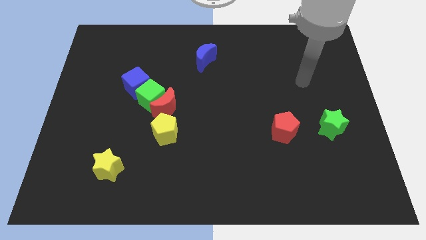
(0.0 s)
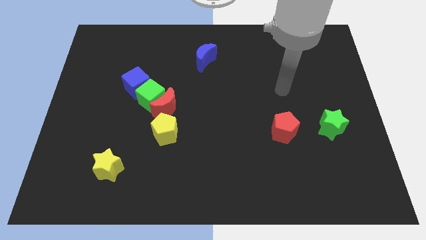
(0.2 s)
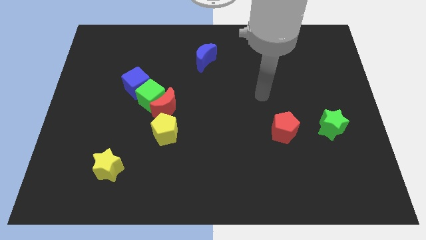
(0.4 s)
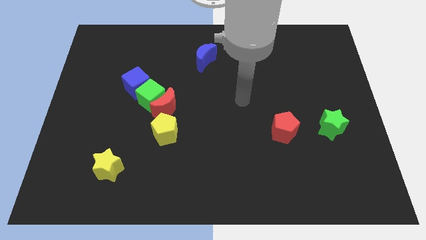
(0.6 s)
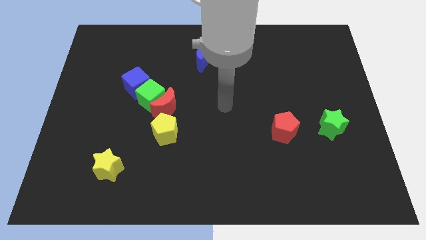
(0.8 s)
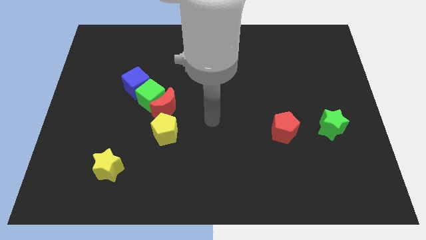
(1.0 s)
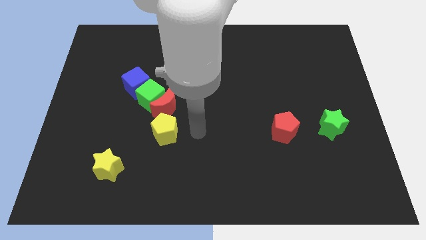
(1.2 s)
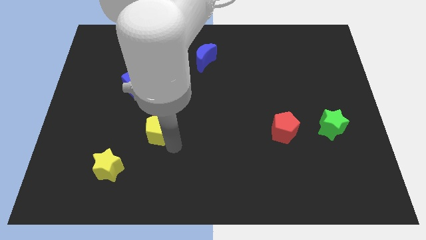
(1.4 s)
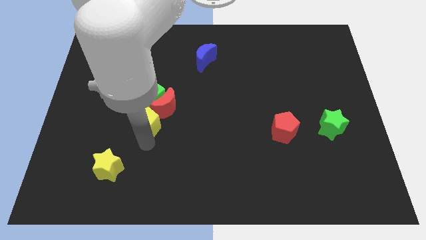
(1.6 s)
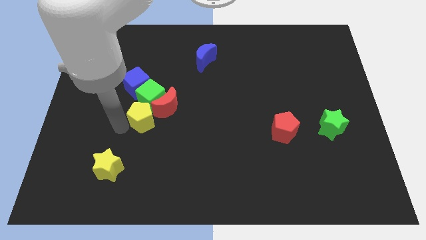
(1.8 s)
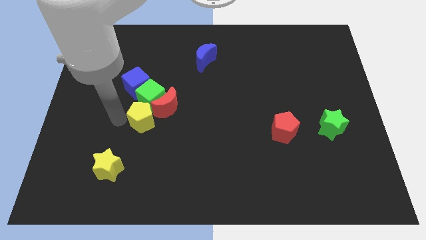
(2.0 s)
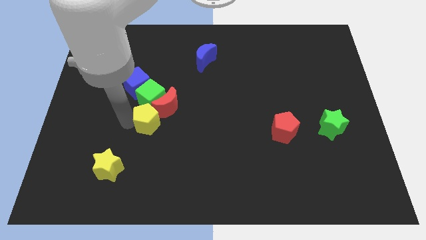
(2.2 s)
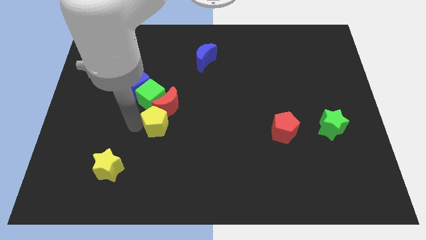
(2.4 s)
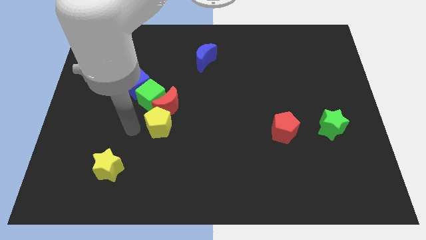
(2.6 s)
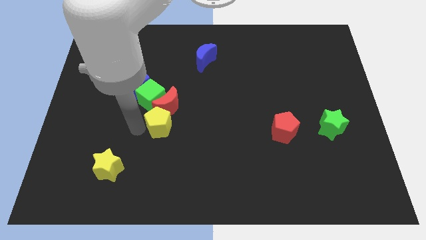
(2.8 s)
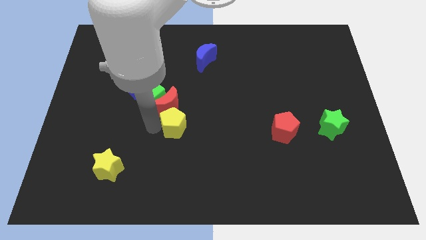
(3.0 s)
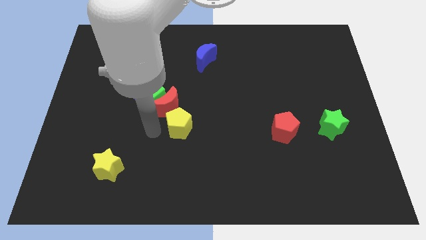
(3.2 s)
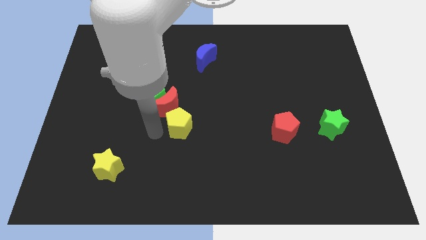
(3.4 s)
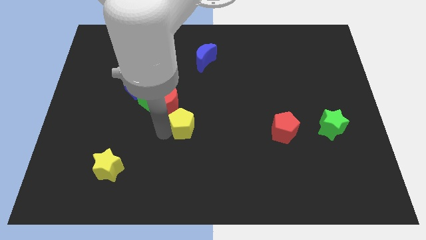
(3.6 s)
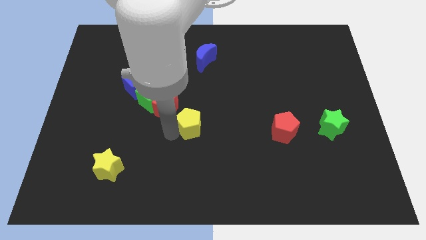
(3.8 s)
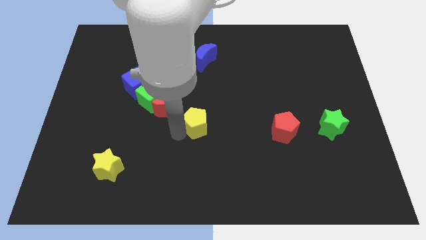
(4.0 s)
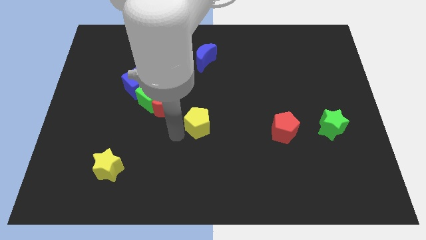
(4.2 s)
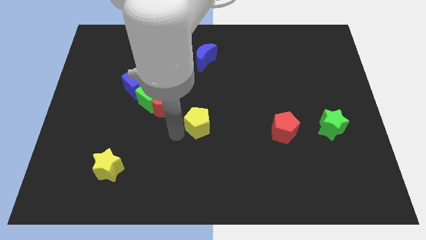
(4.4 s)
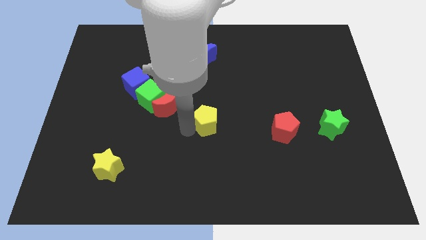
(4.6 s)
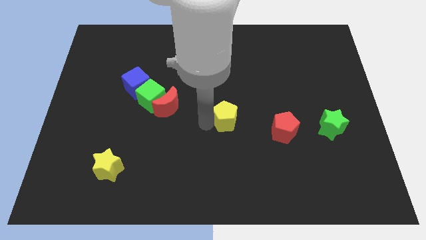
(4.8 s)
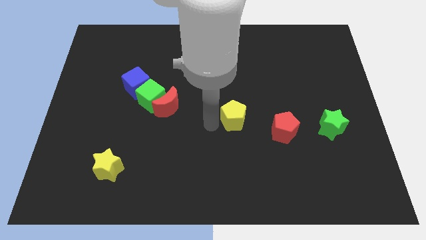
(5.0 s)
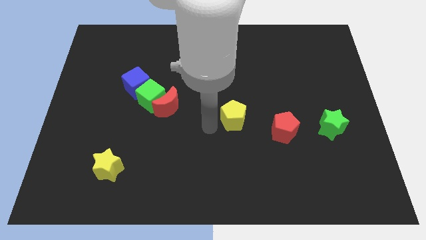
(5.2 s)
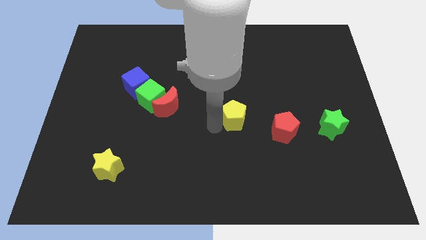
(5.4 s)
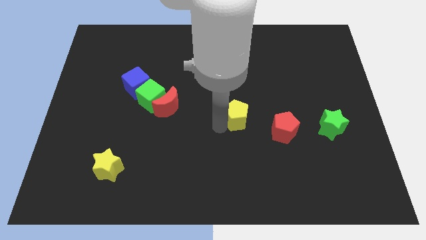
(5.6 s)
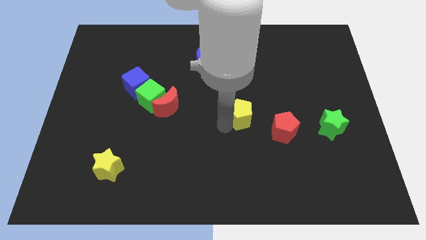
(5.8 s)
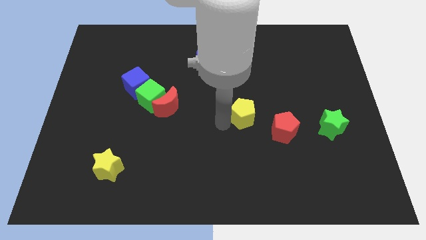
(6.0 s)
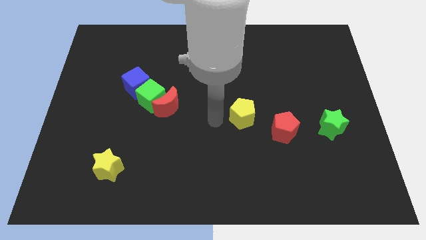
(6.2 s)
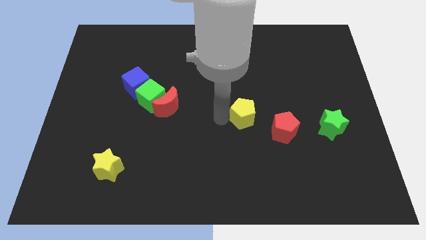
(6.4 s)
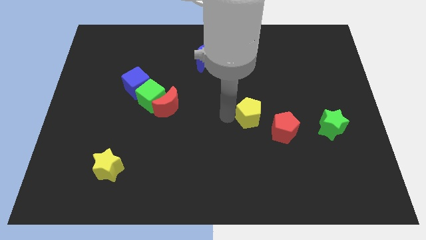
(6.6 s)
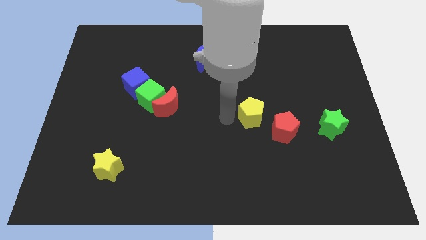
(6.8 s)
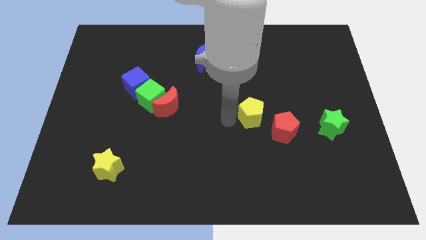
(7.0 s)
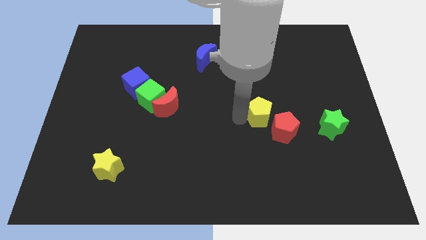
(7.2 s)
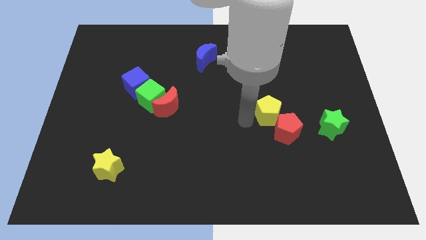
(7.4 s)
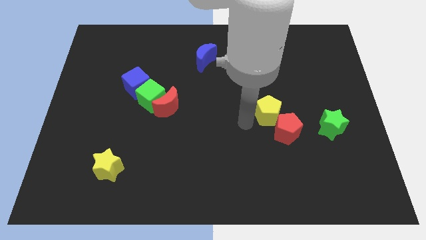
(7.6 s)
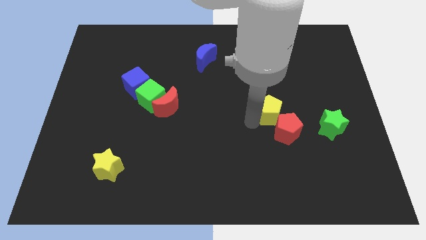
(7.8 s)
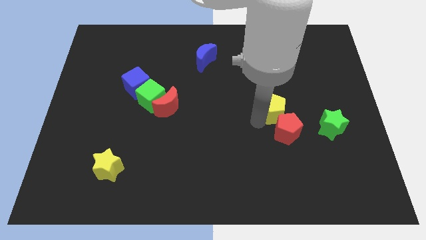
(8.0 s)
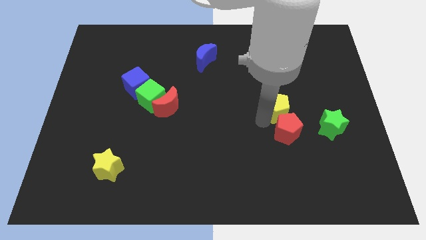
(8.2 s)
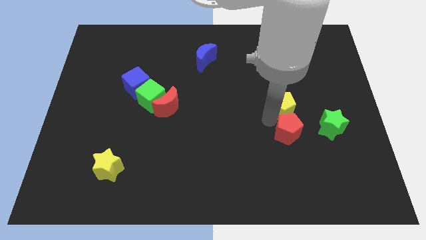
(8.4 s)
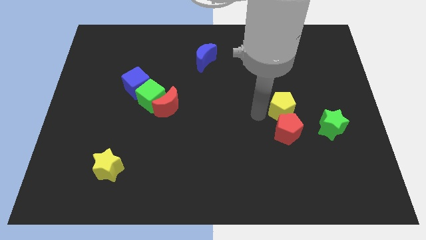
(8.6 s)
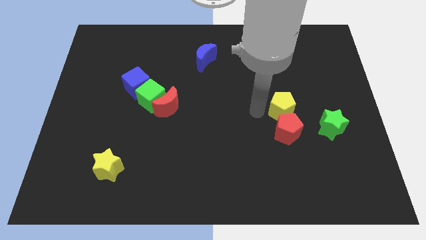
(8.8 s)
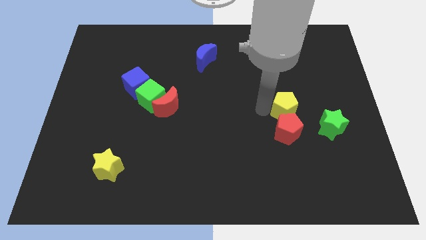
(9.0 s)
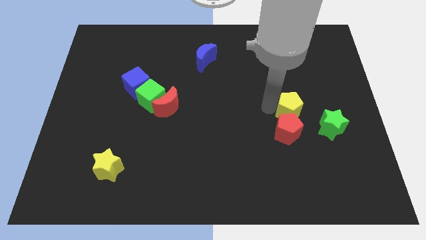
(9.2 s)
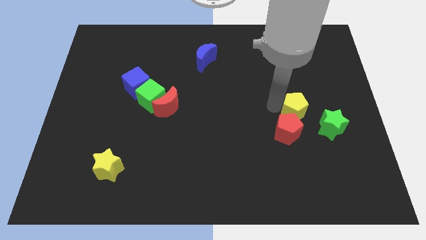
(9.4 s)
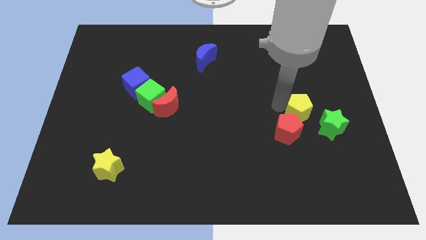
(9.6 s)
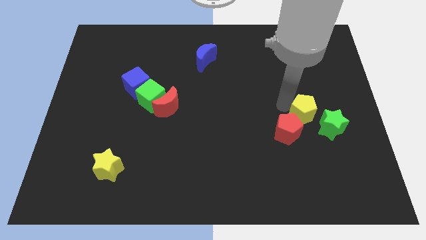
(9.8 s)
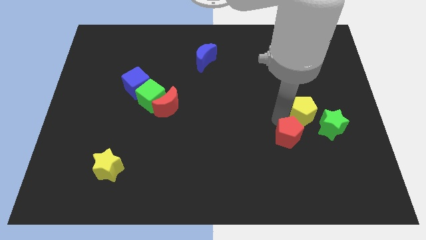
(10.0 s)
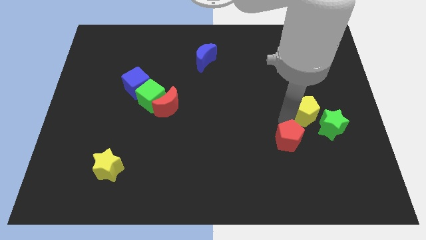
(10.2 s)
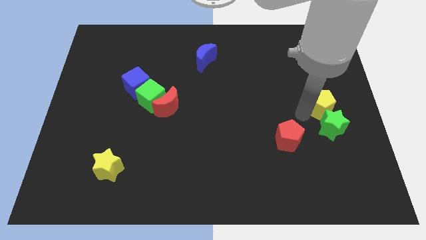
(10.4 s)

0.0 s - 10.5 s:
push the yellow pentagon to the right side

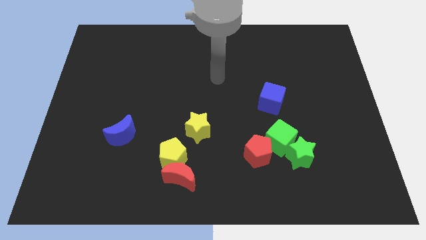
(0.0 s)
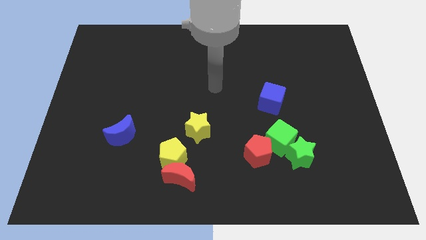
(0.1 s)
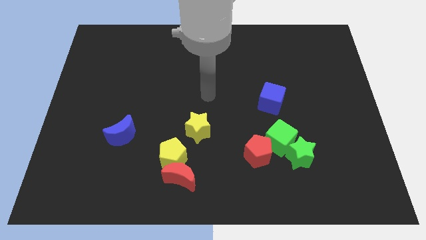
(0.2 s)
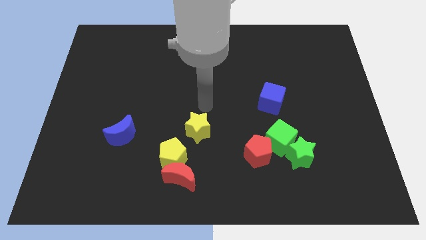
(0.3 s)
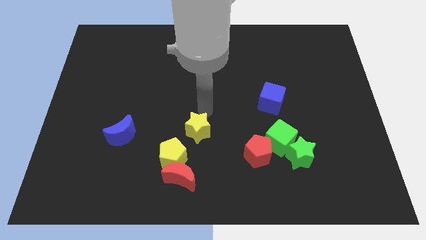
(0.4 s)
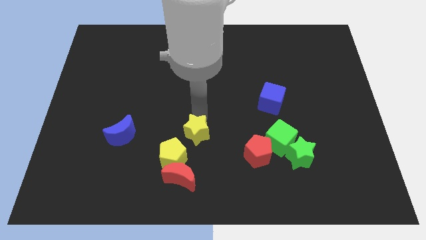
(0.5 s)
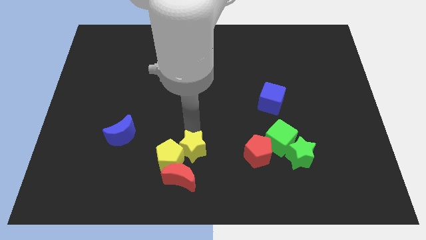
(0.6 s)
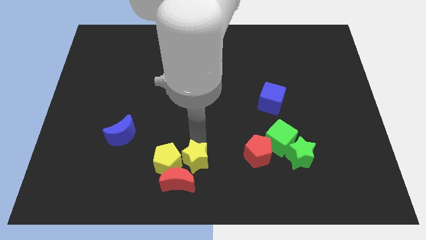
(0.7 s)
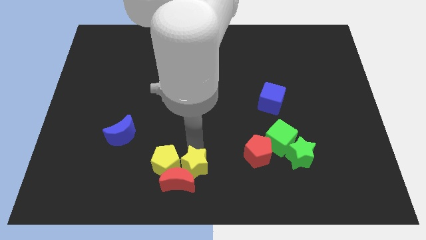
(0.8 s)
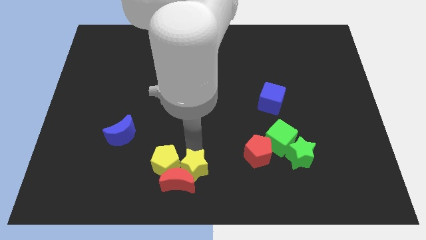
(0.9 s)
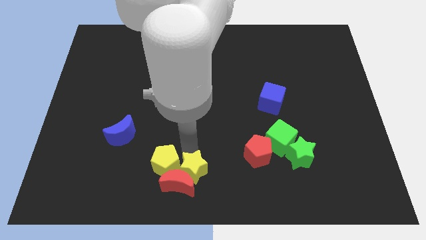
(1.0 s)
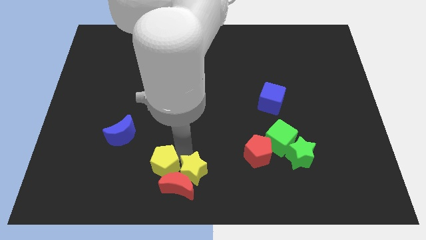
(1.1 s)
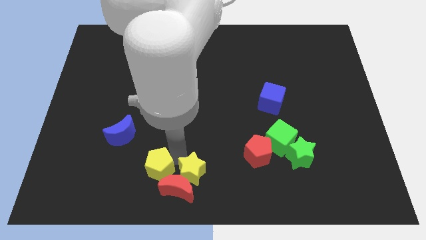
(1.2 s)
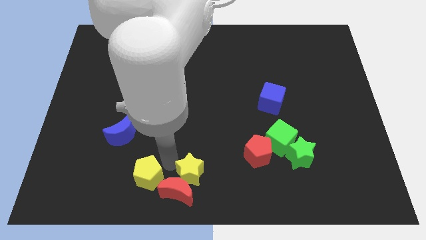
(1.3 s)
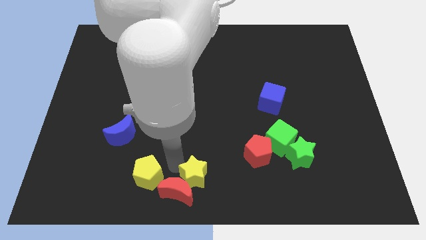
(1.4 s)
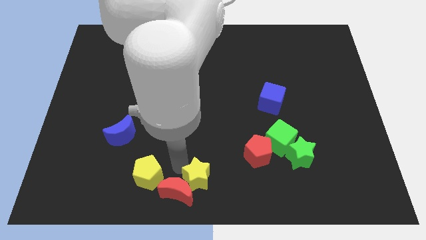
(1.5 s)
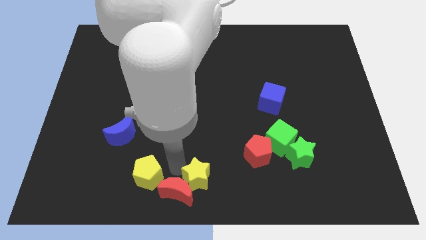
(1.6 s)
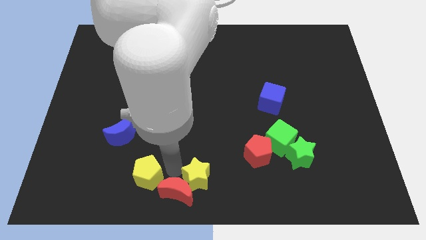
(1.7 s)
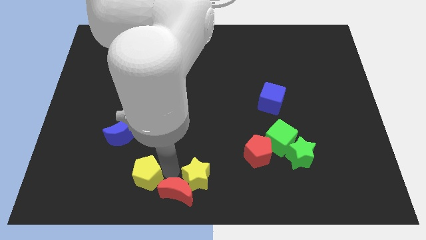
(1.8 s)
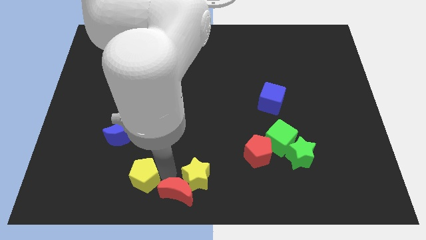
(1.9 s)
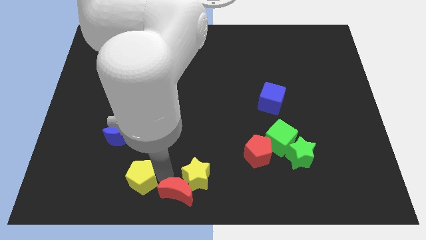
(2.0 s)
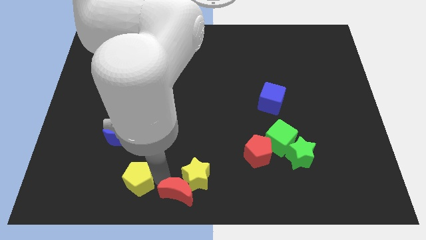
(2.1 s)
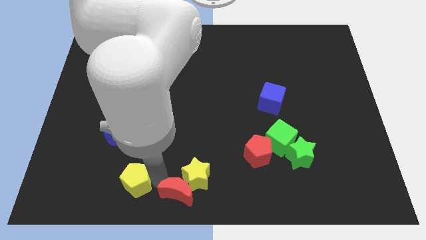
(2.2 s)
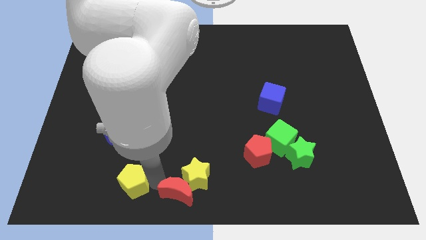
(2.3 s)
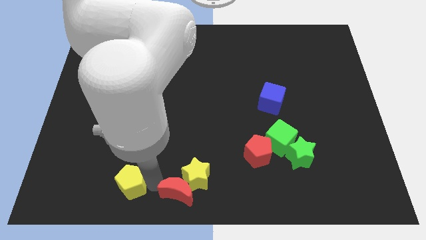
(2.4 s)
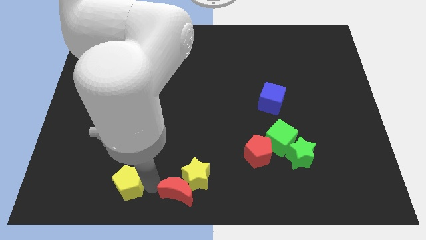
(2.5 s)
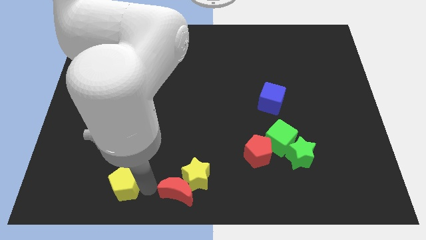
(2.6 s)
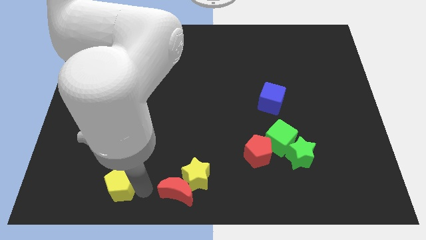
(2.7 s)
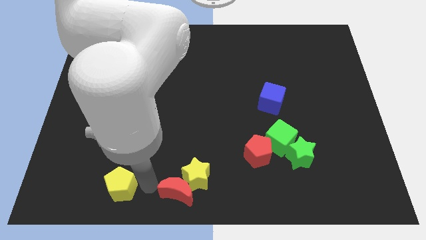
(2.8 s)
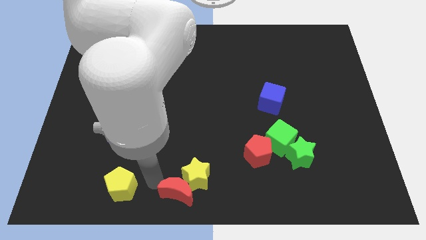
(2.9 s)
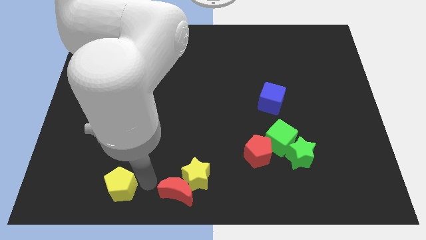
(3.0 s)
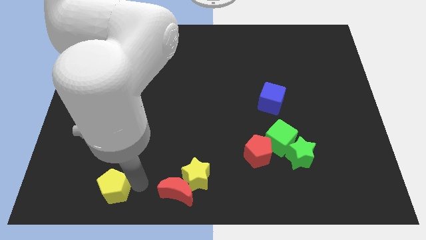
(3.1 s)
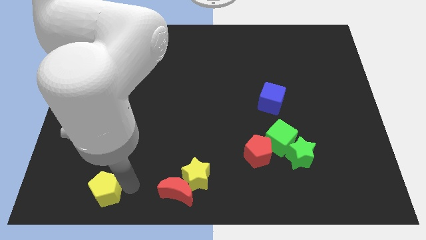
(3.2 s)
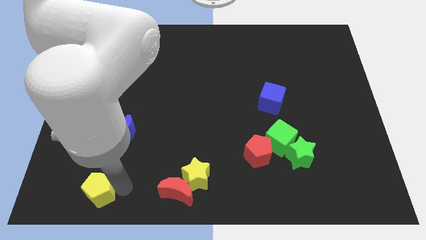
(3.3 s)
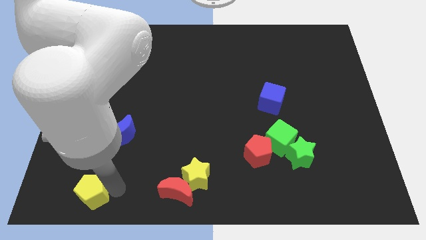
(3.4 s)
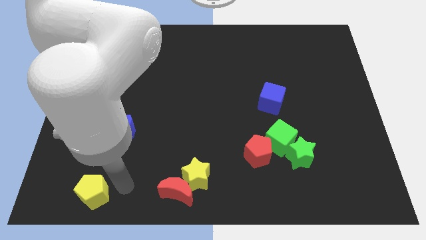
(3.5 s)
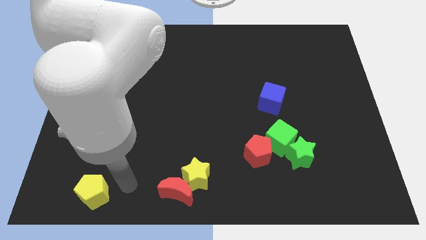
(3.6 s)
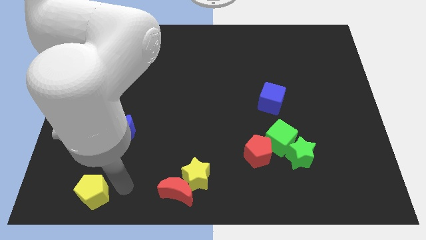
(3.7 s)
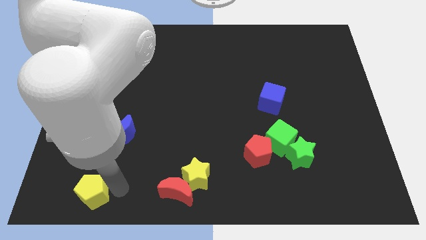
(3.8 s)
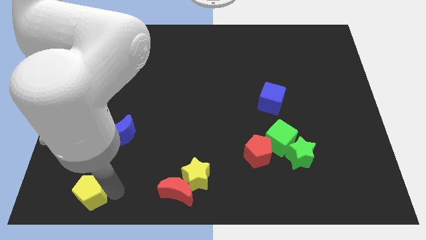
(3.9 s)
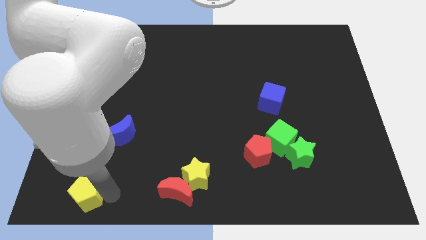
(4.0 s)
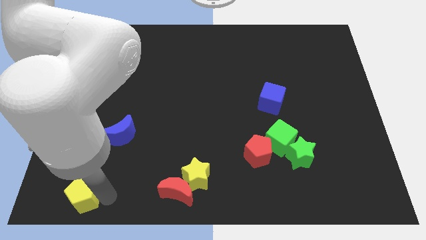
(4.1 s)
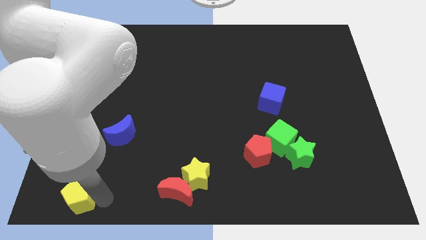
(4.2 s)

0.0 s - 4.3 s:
push the yellow pentagon to the bottom left of the board
